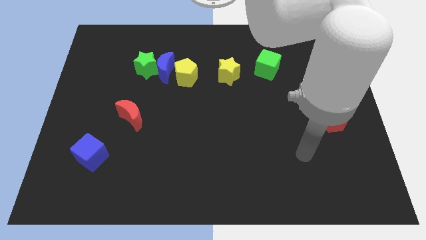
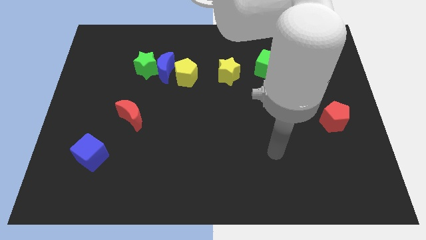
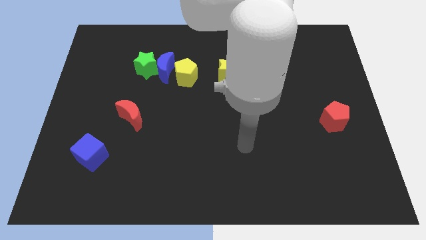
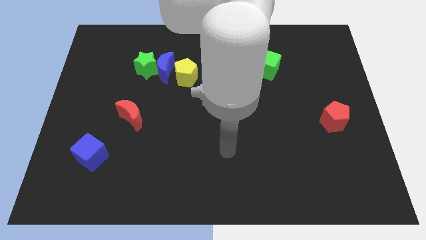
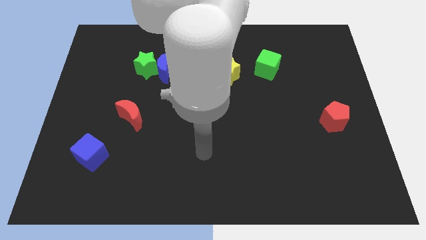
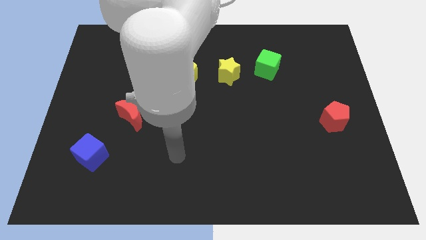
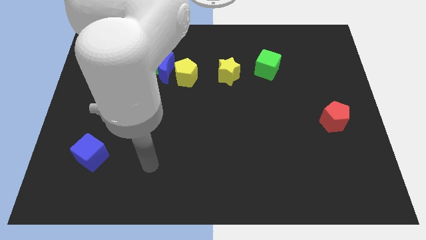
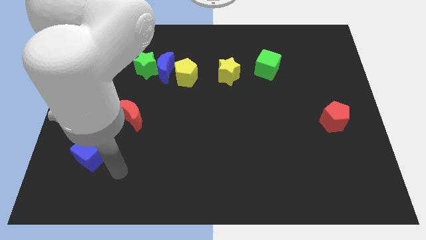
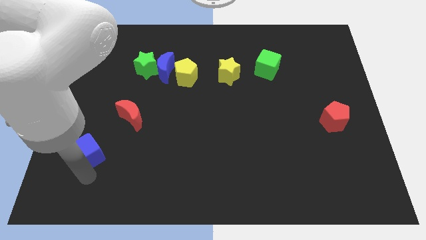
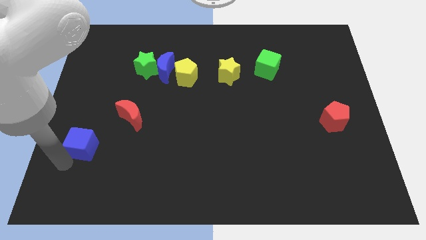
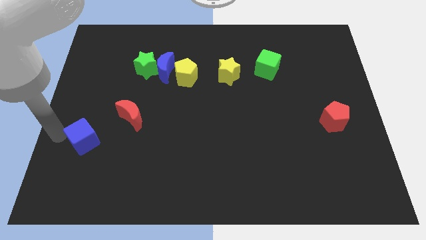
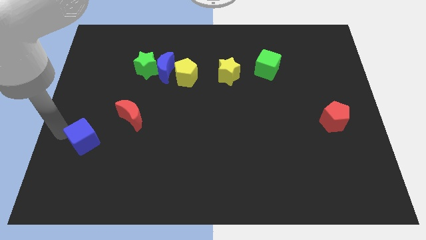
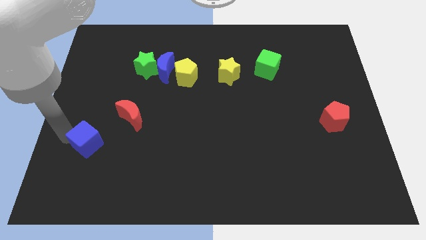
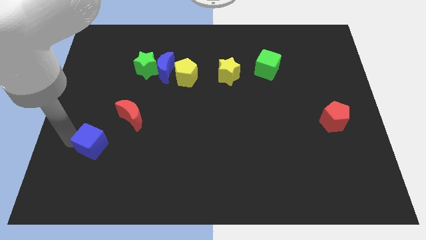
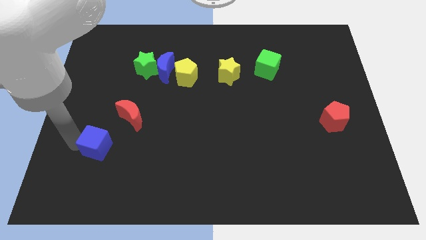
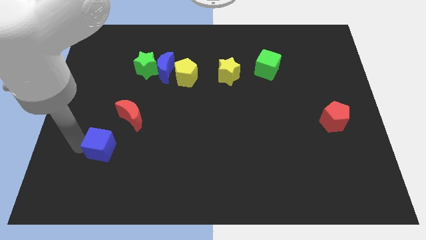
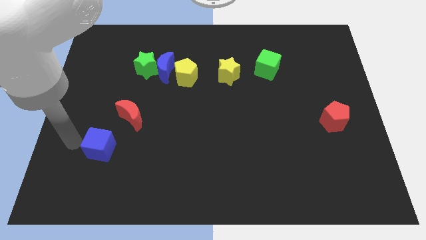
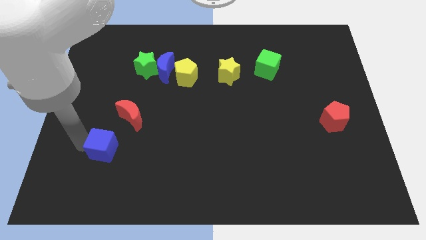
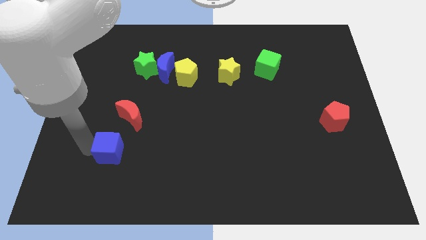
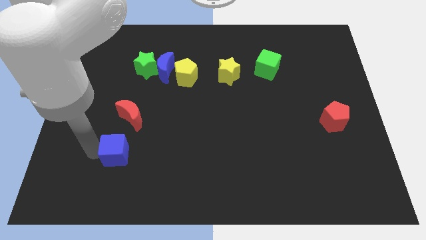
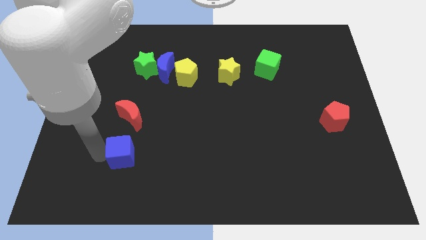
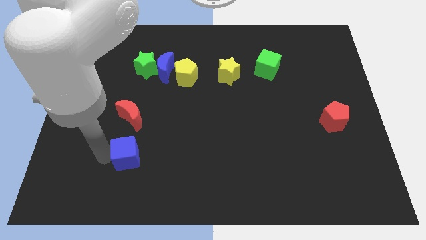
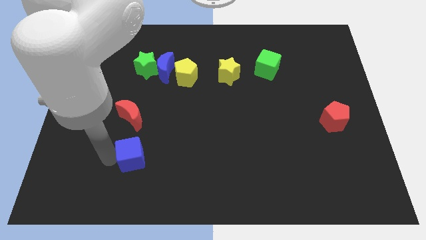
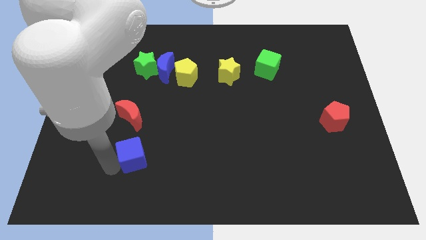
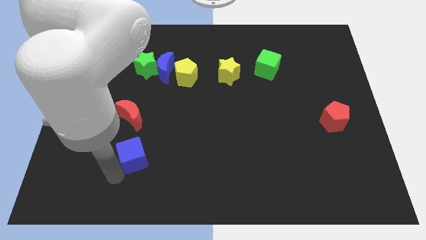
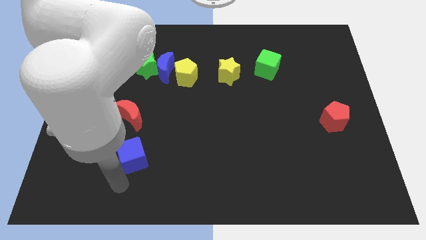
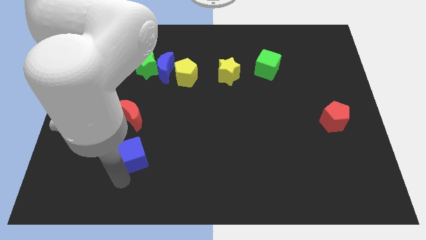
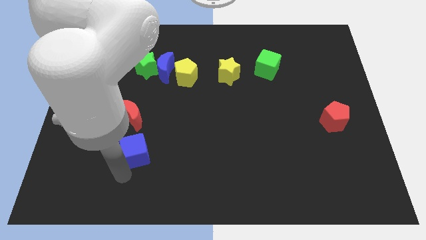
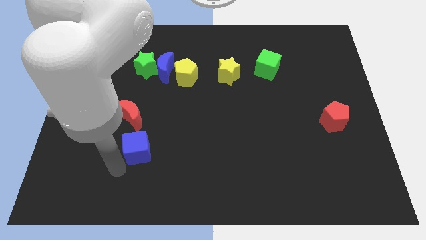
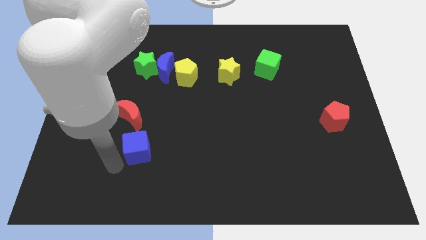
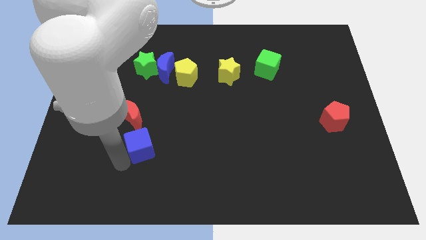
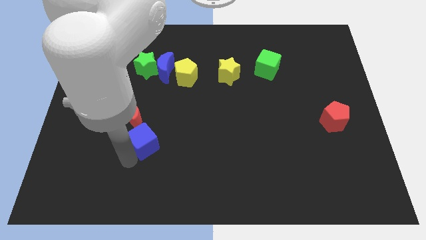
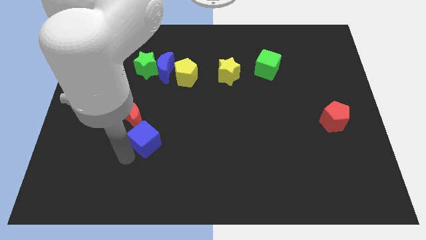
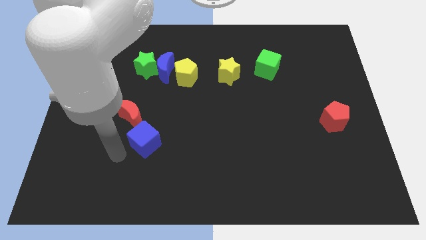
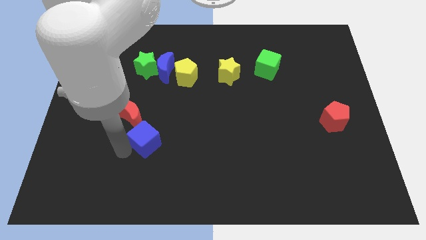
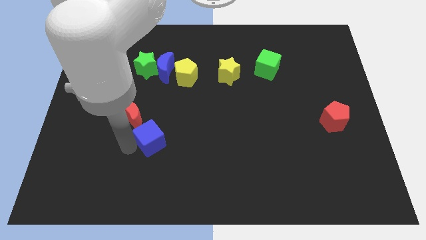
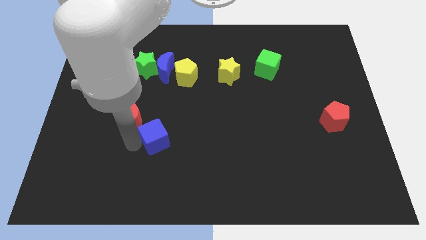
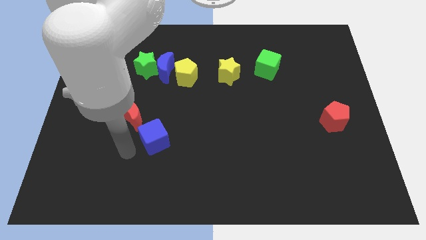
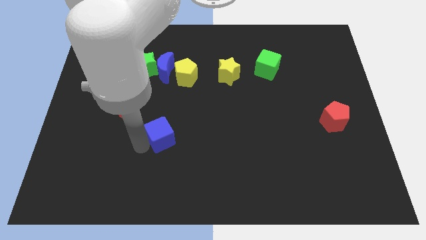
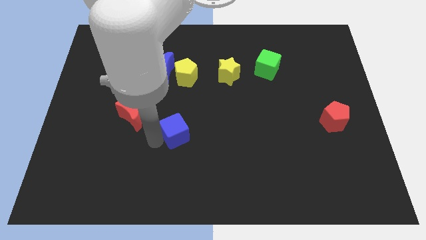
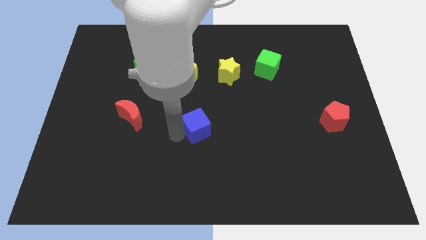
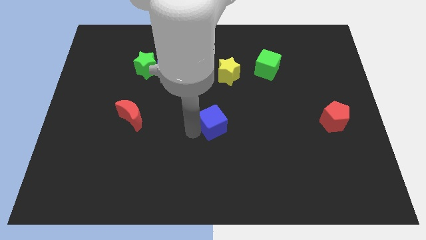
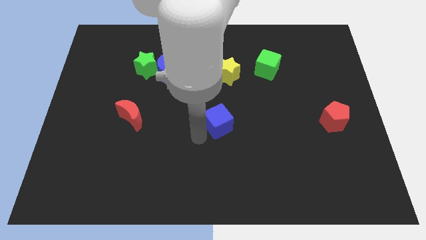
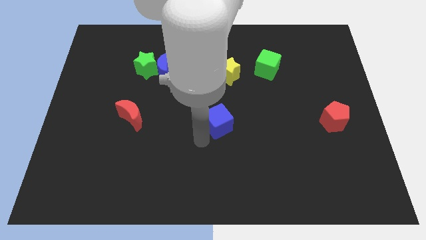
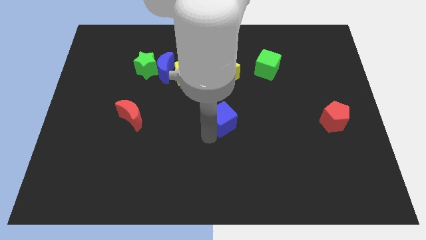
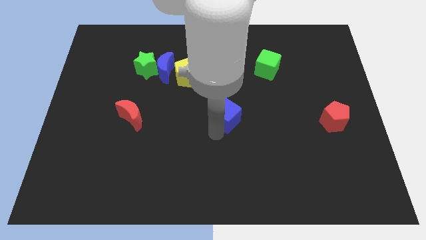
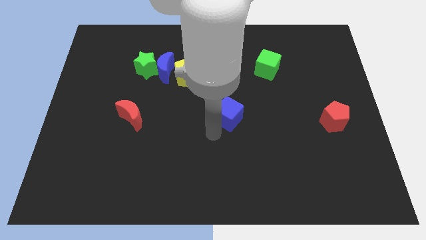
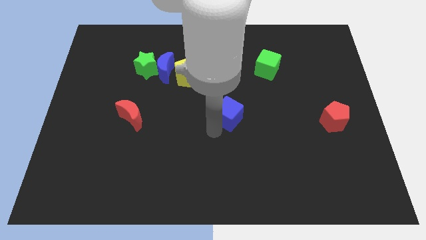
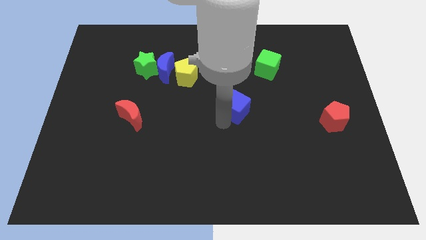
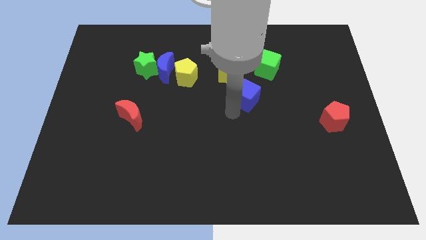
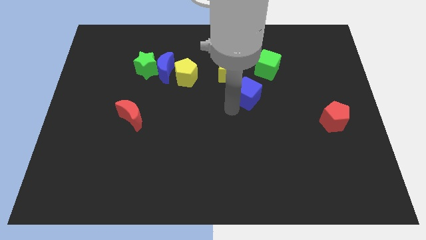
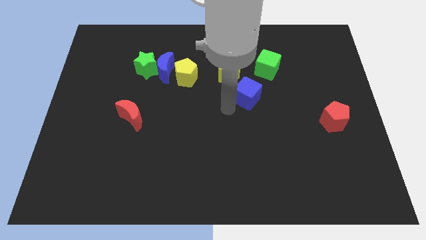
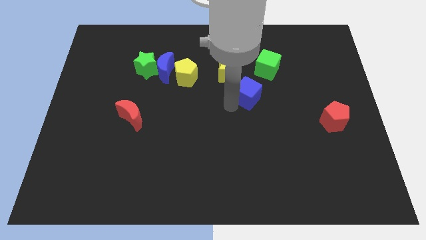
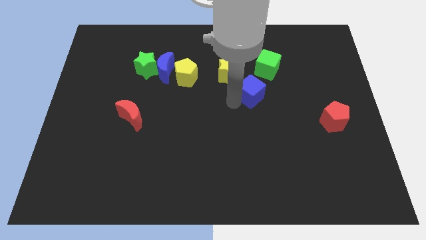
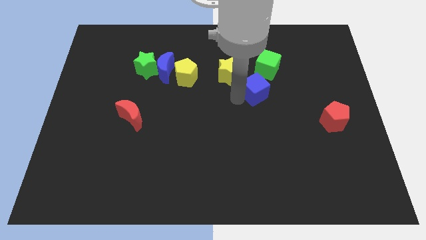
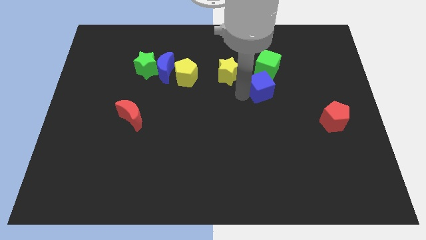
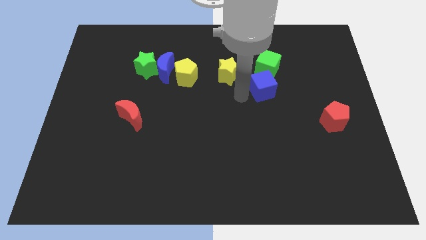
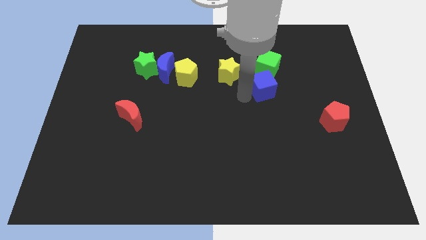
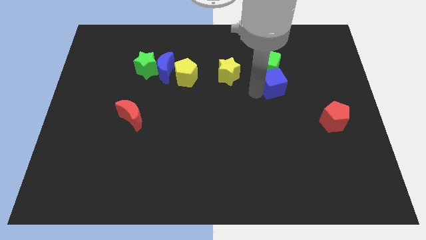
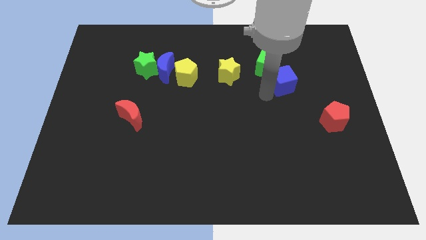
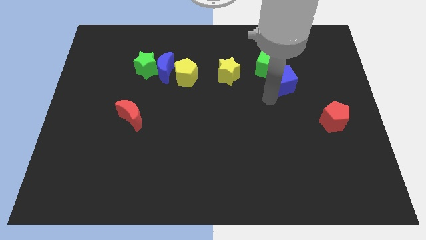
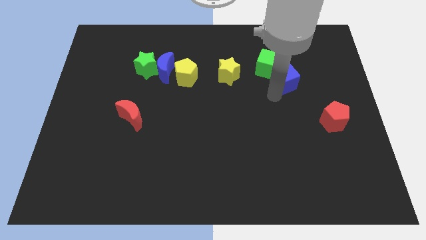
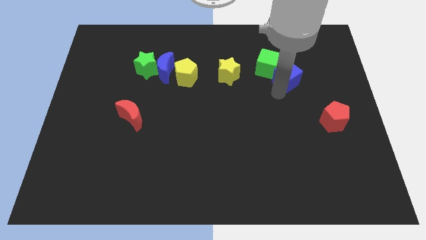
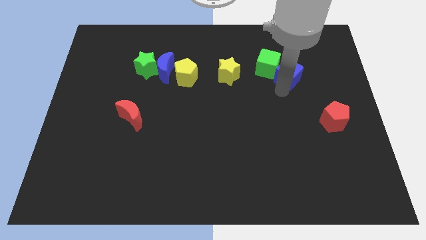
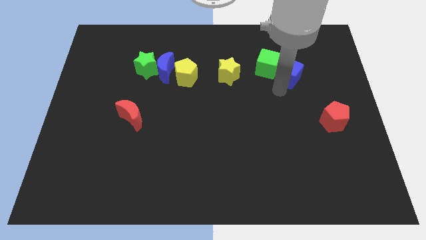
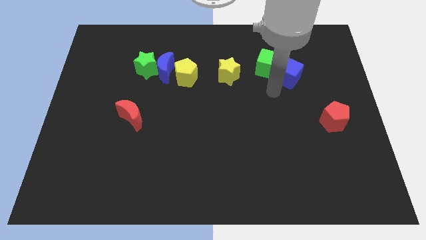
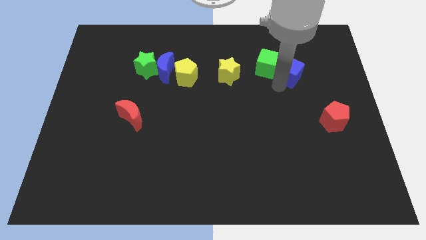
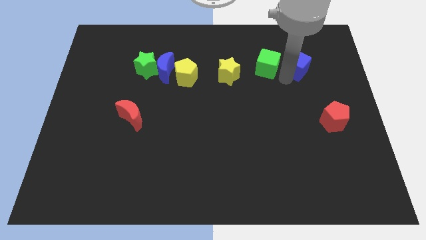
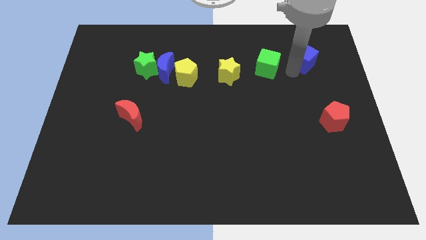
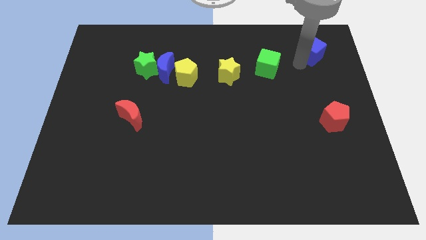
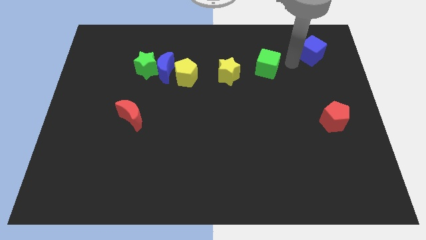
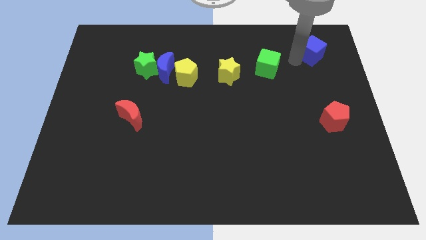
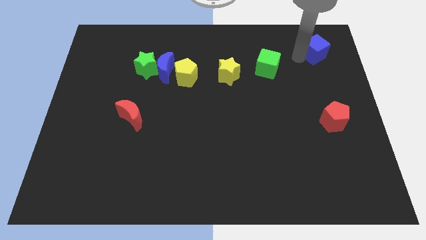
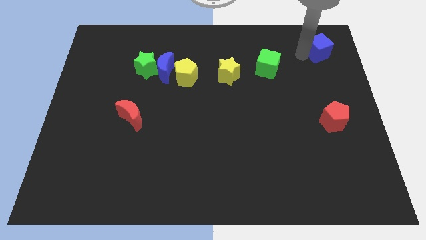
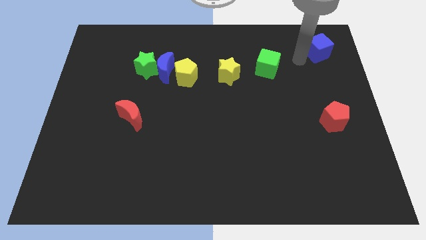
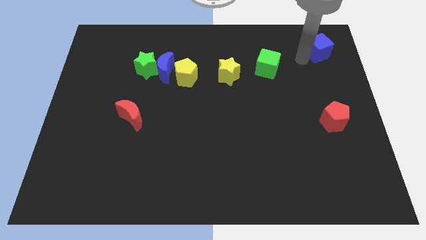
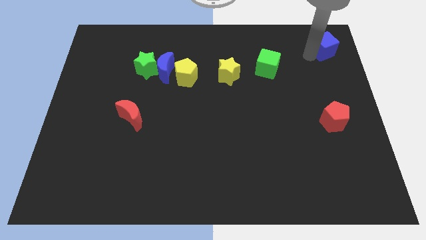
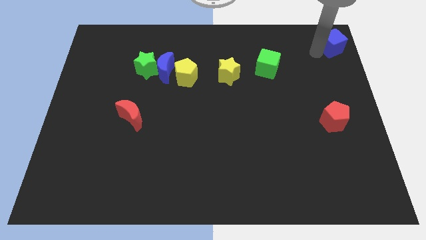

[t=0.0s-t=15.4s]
slide the blue cube to the top right corner
